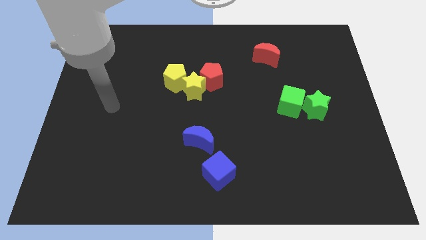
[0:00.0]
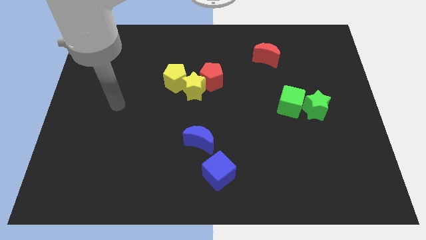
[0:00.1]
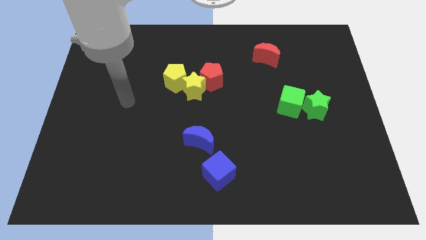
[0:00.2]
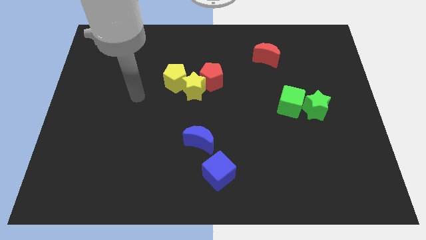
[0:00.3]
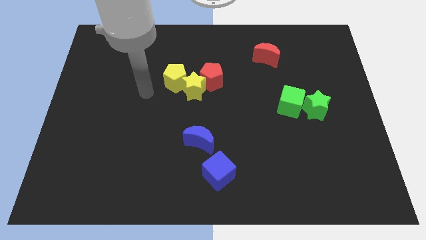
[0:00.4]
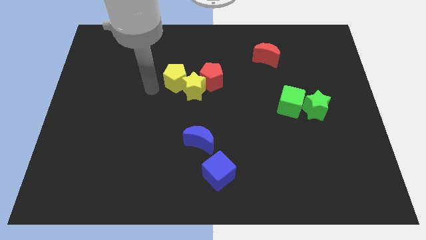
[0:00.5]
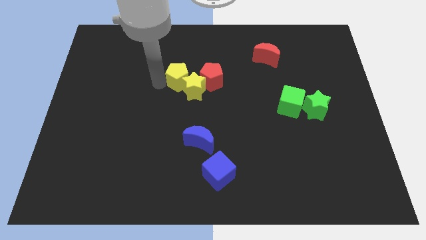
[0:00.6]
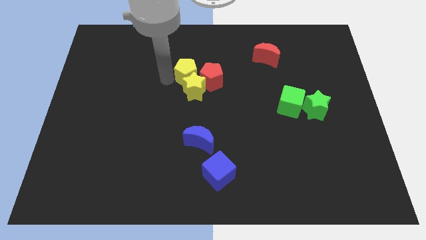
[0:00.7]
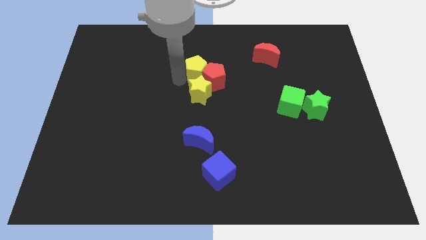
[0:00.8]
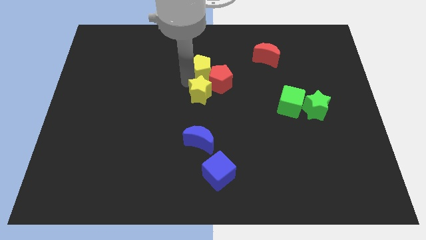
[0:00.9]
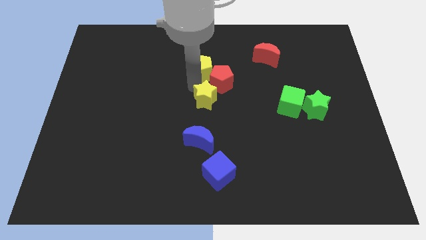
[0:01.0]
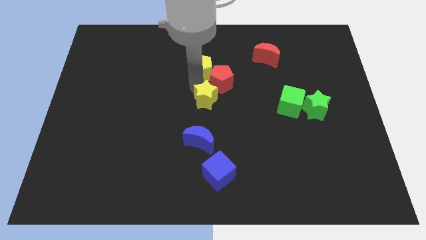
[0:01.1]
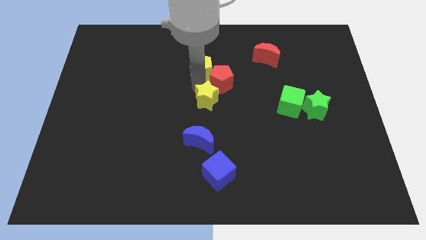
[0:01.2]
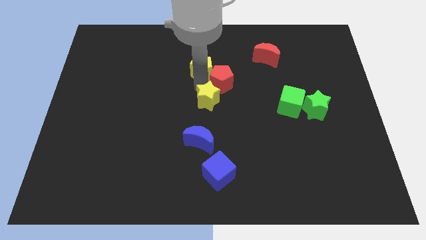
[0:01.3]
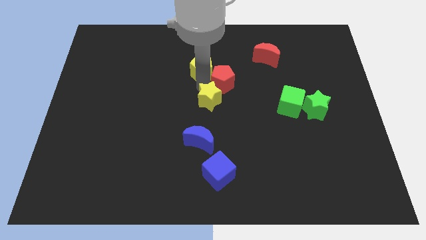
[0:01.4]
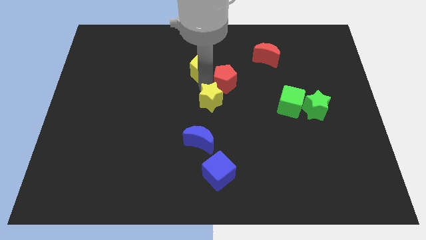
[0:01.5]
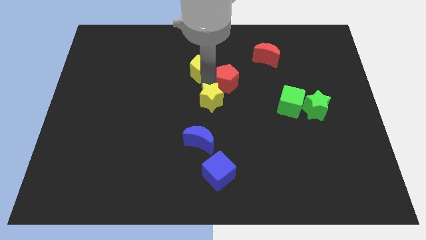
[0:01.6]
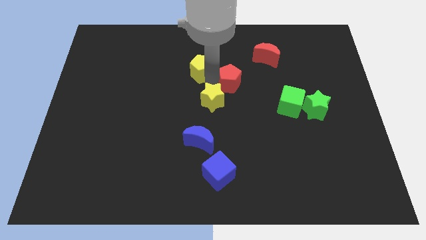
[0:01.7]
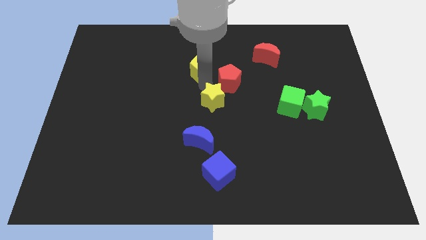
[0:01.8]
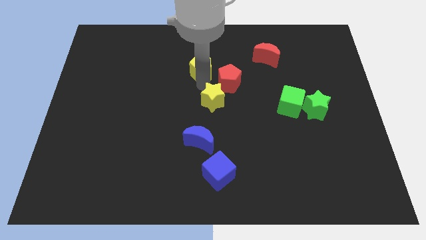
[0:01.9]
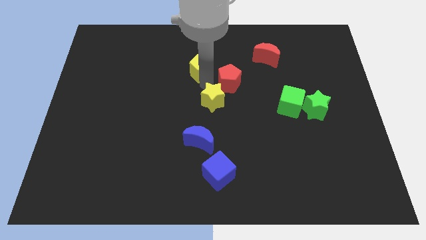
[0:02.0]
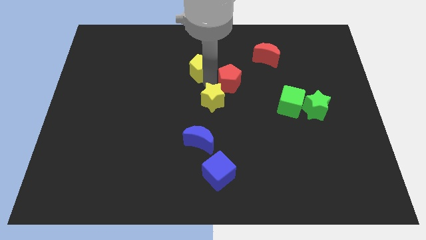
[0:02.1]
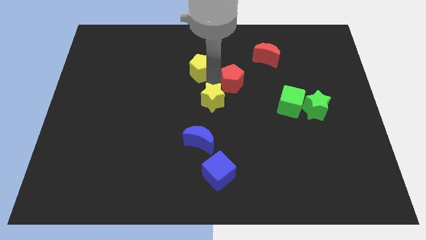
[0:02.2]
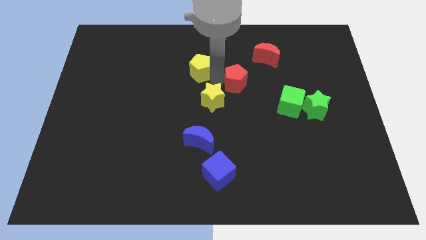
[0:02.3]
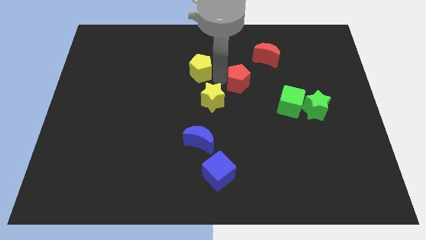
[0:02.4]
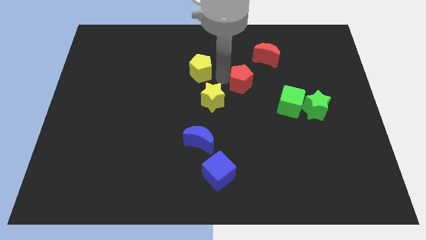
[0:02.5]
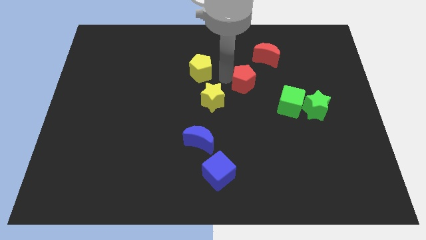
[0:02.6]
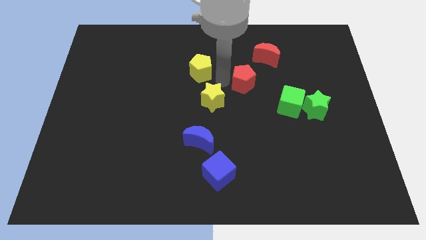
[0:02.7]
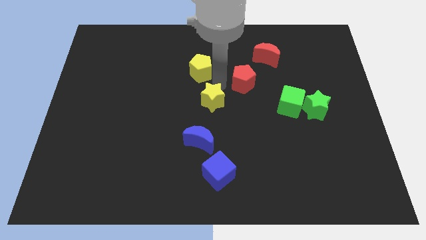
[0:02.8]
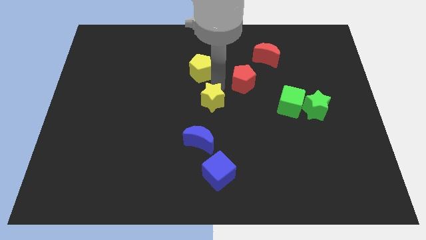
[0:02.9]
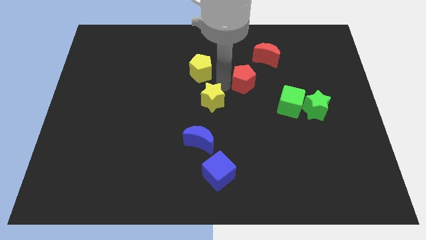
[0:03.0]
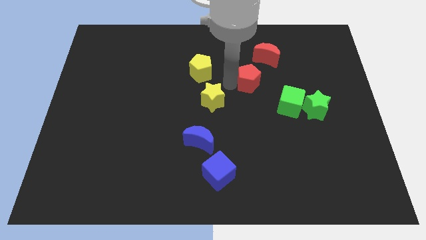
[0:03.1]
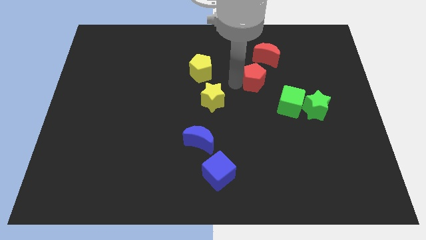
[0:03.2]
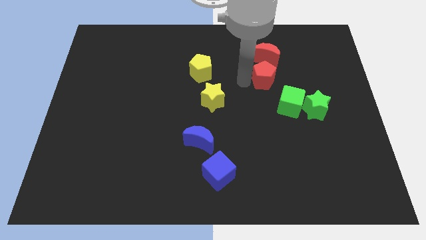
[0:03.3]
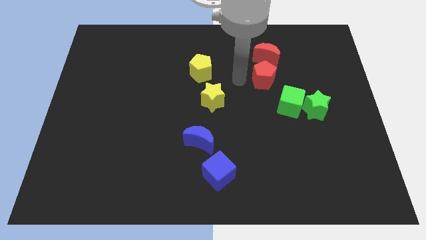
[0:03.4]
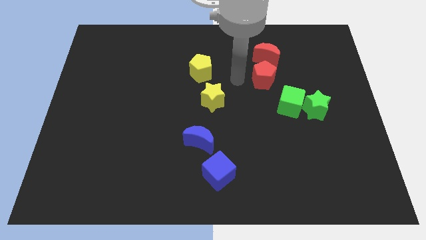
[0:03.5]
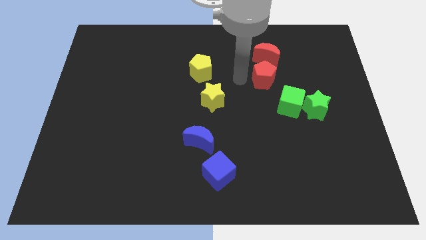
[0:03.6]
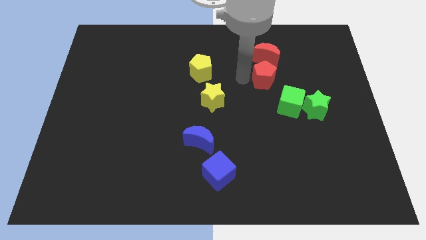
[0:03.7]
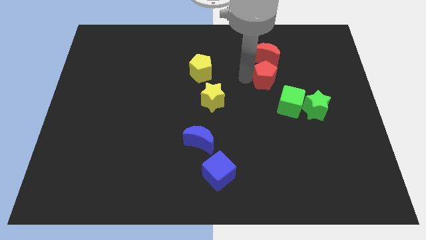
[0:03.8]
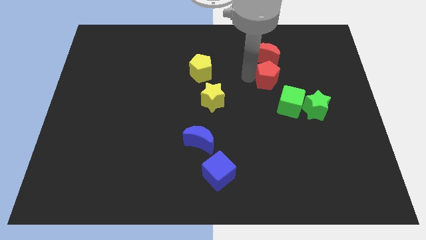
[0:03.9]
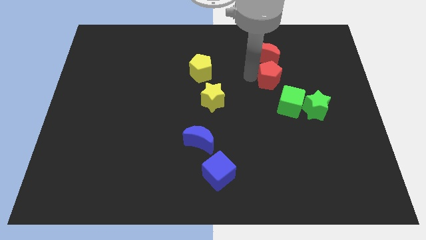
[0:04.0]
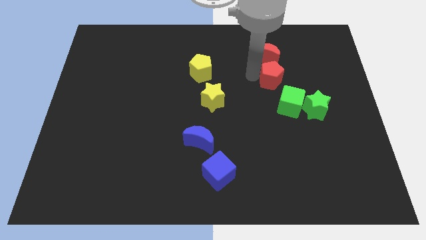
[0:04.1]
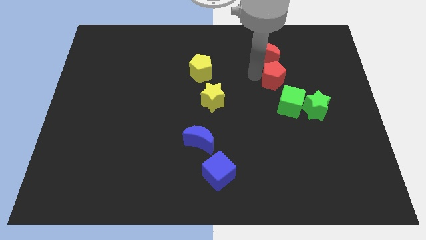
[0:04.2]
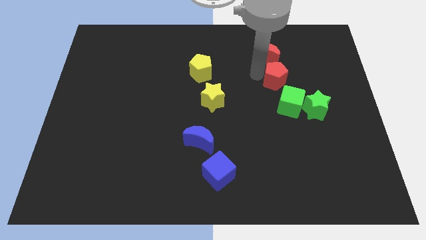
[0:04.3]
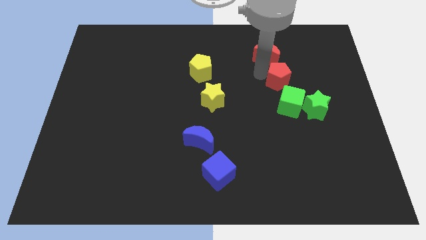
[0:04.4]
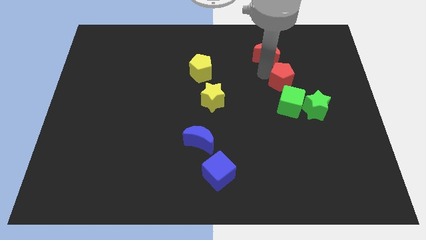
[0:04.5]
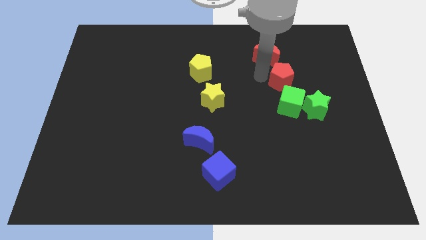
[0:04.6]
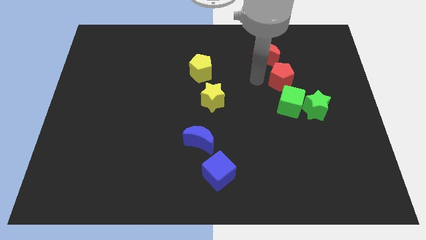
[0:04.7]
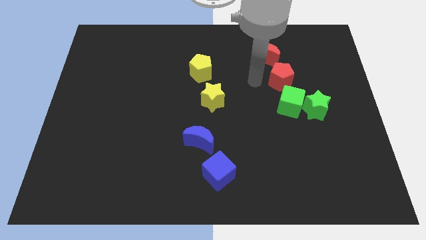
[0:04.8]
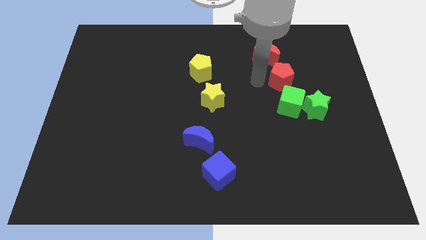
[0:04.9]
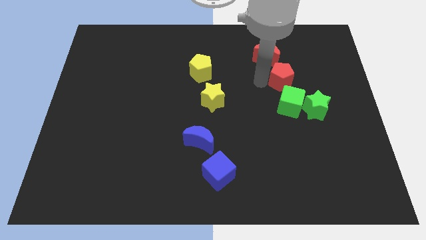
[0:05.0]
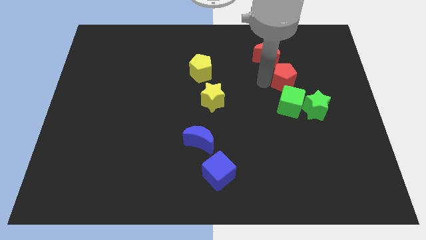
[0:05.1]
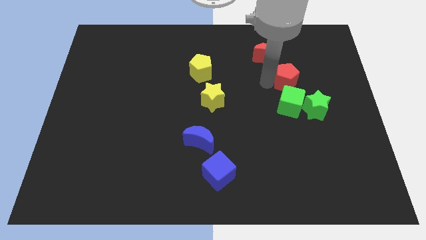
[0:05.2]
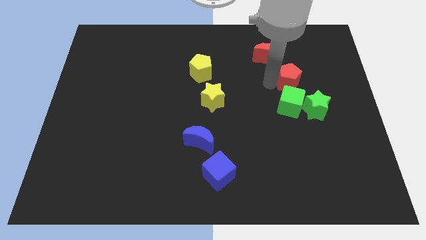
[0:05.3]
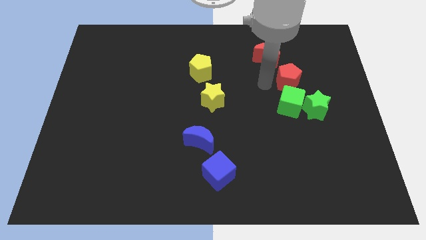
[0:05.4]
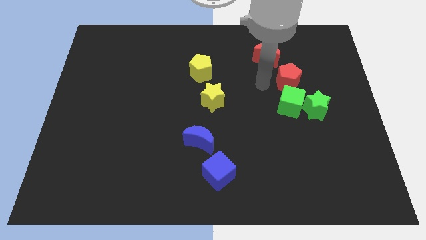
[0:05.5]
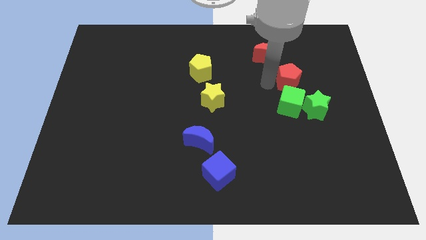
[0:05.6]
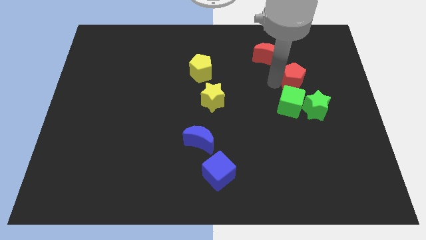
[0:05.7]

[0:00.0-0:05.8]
put the red pentagon above the green star

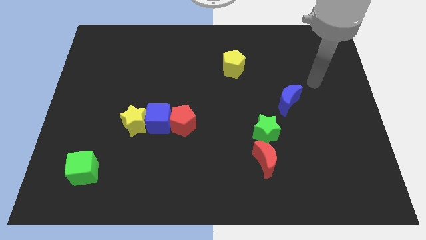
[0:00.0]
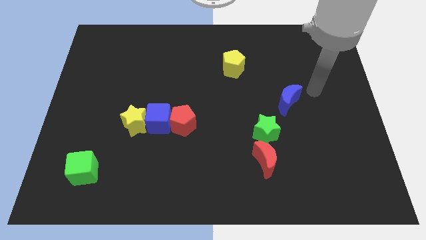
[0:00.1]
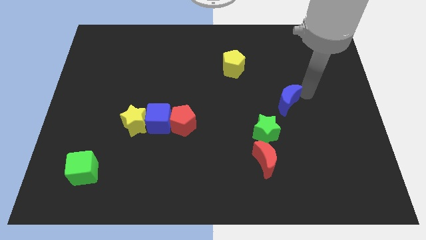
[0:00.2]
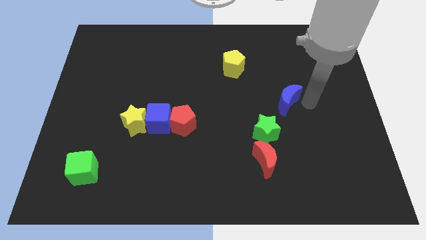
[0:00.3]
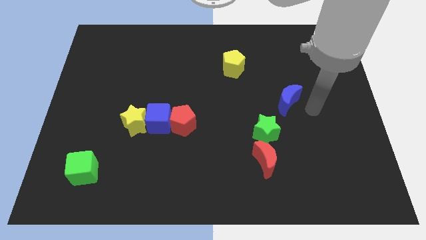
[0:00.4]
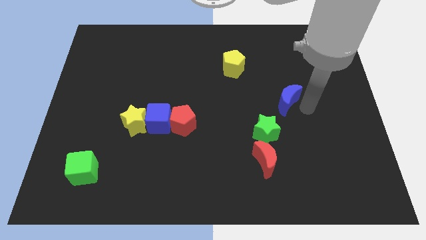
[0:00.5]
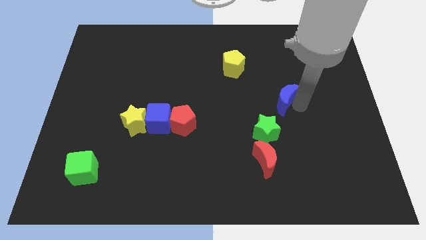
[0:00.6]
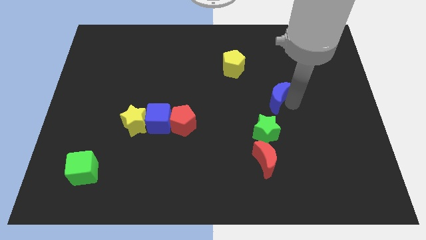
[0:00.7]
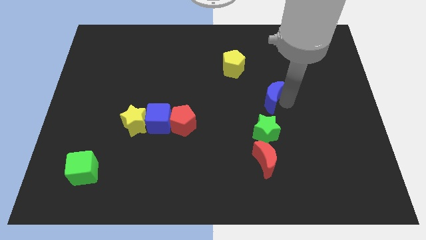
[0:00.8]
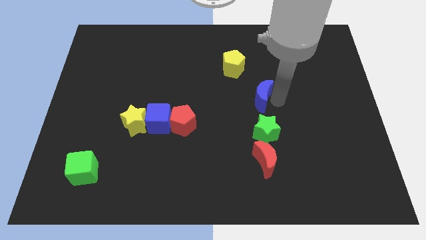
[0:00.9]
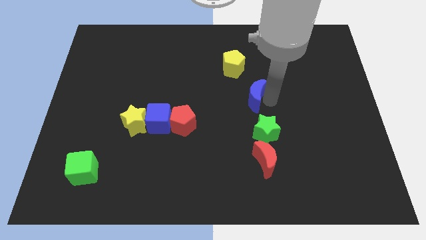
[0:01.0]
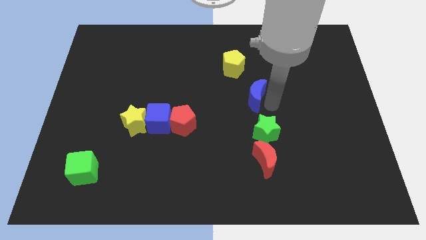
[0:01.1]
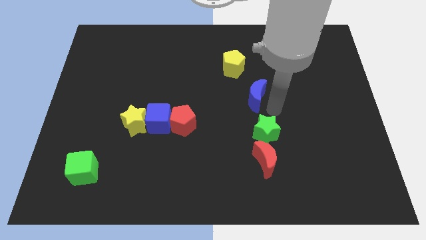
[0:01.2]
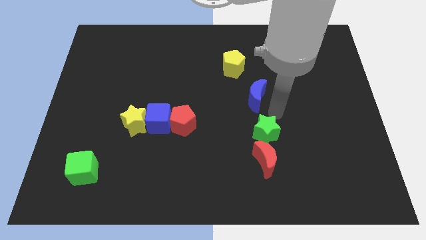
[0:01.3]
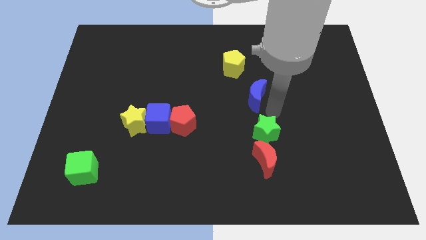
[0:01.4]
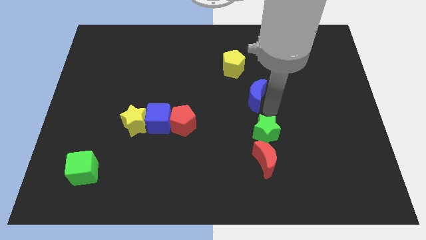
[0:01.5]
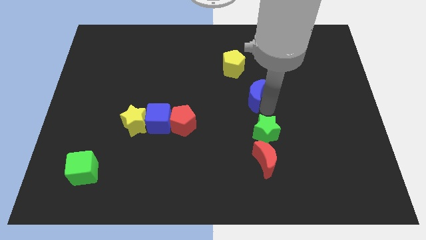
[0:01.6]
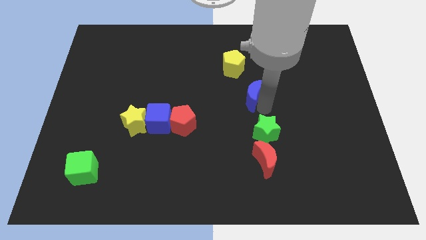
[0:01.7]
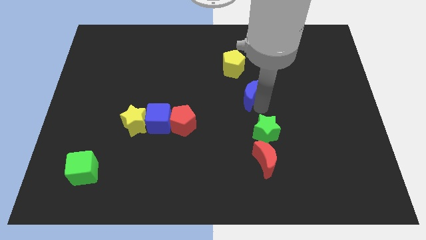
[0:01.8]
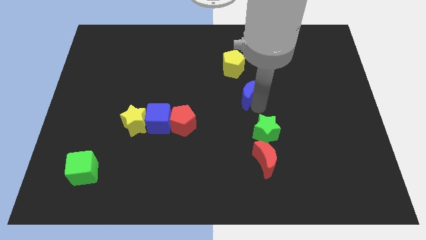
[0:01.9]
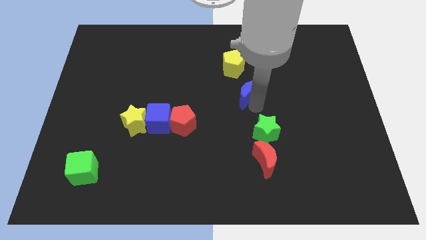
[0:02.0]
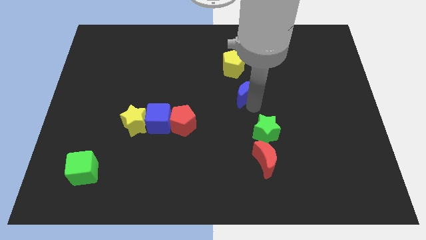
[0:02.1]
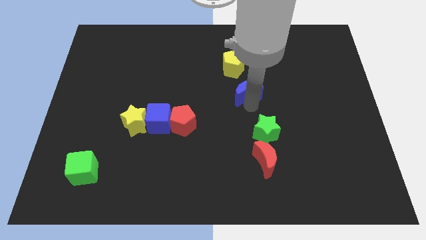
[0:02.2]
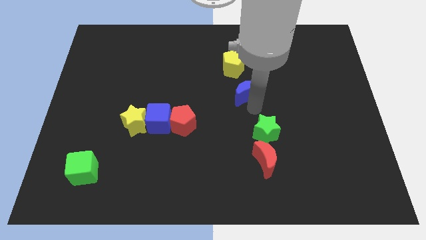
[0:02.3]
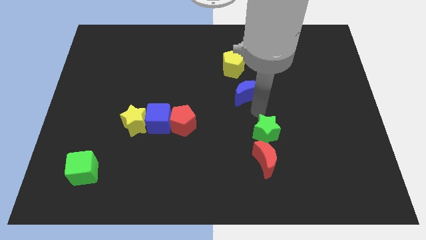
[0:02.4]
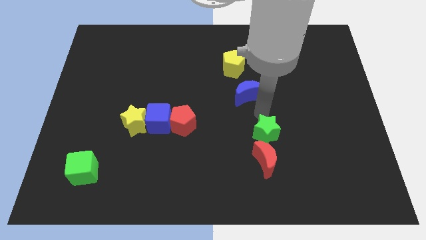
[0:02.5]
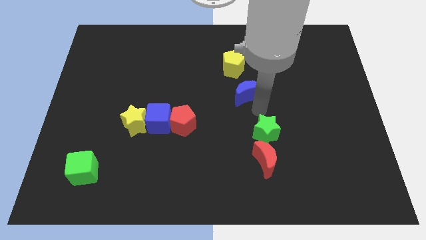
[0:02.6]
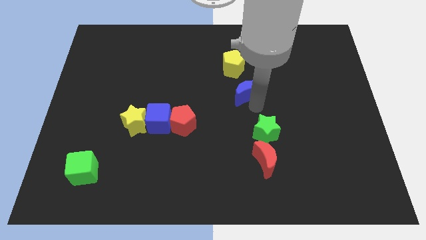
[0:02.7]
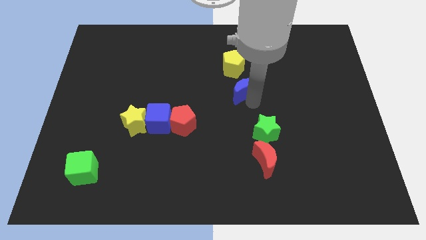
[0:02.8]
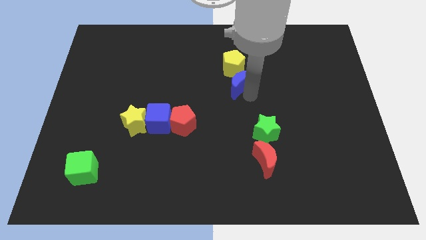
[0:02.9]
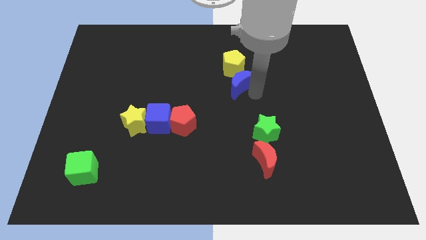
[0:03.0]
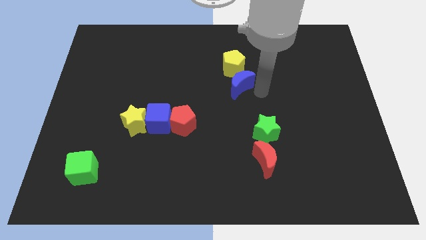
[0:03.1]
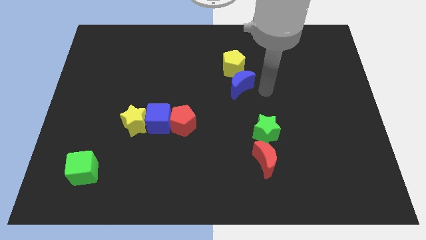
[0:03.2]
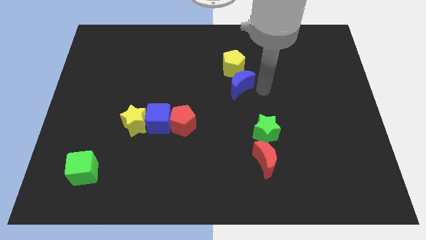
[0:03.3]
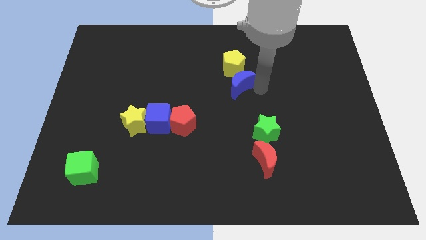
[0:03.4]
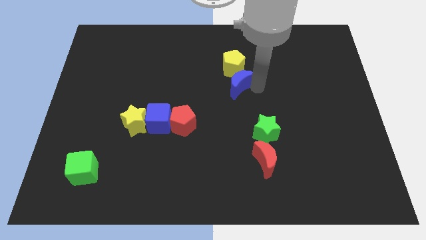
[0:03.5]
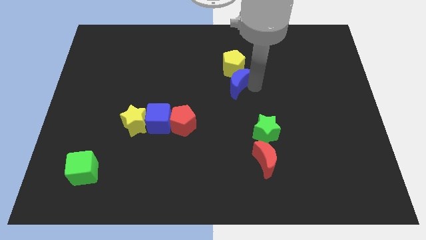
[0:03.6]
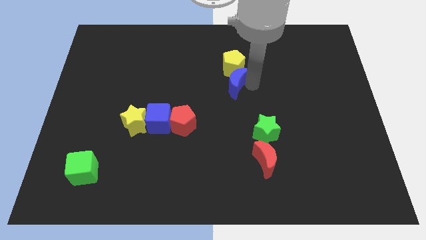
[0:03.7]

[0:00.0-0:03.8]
slide the blue moon diagonally down and to the left of the yellow pentagon
